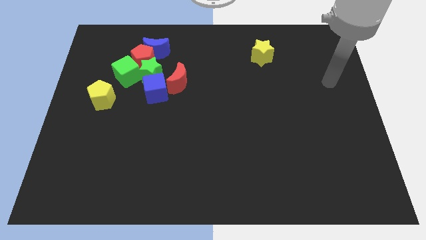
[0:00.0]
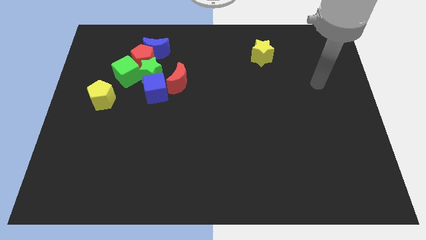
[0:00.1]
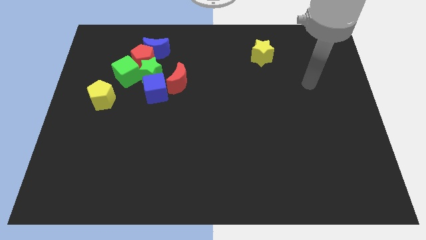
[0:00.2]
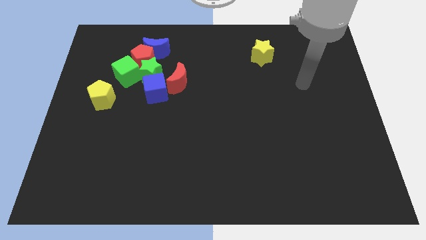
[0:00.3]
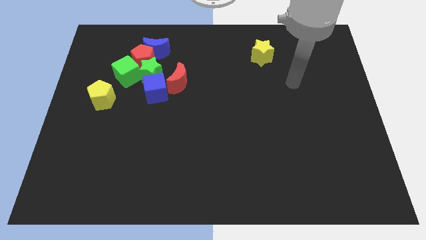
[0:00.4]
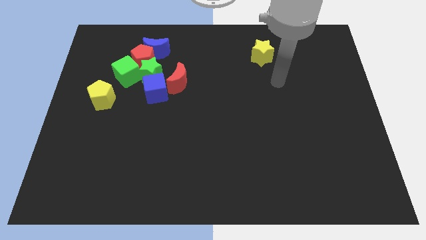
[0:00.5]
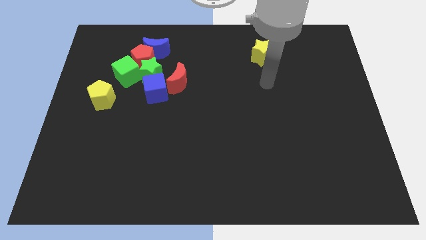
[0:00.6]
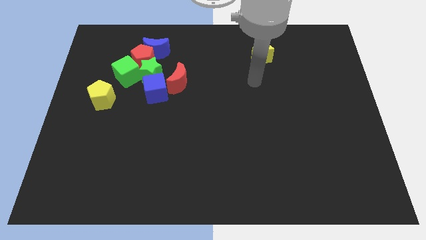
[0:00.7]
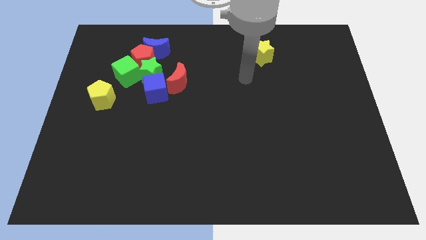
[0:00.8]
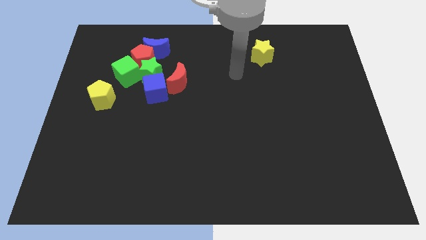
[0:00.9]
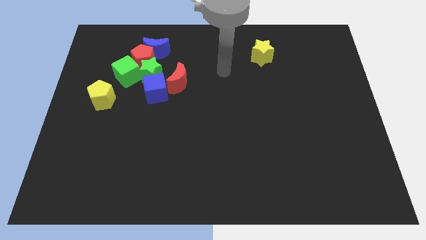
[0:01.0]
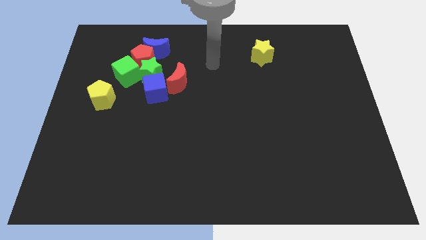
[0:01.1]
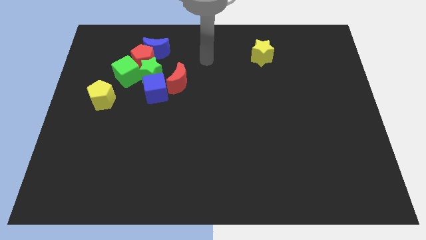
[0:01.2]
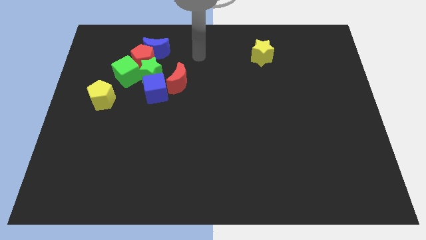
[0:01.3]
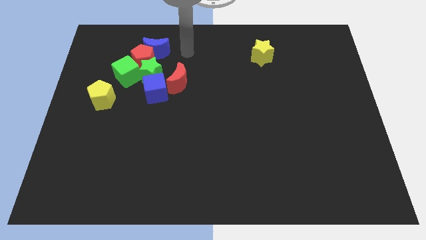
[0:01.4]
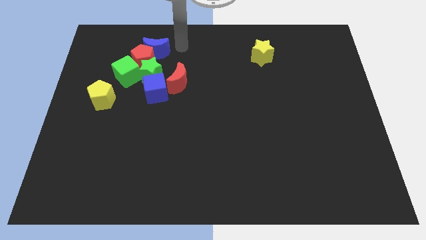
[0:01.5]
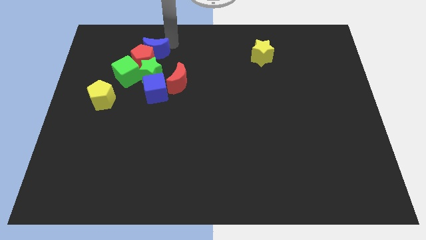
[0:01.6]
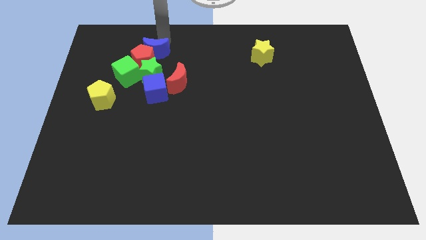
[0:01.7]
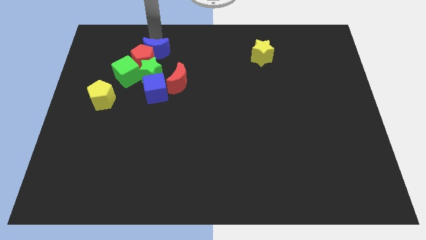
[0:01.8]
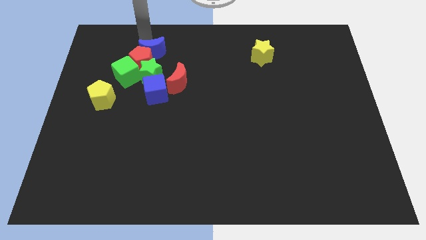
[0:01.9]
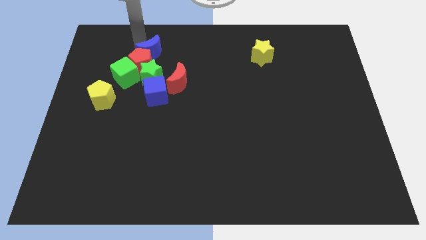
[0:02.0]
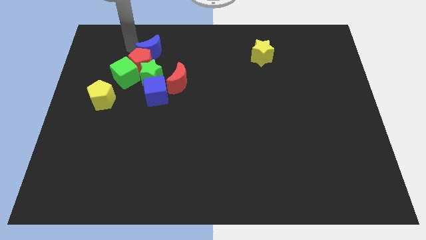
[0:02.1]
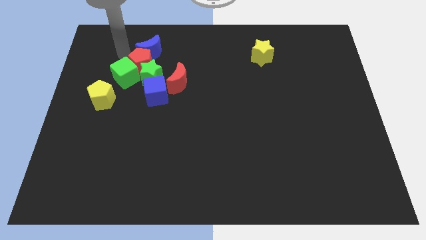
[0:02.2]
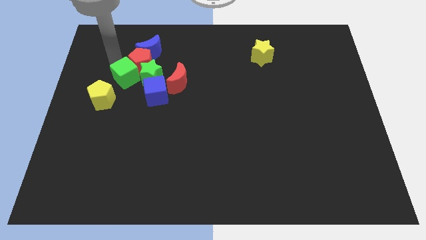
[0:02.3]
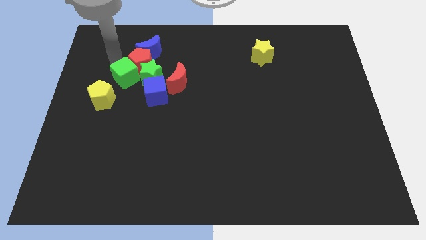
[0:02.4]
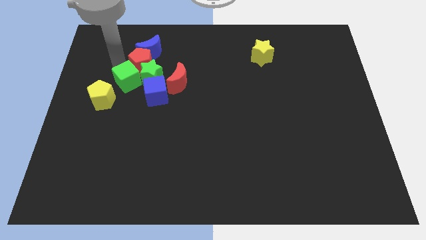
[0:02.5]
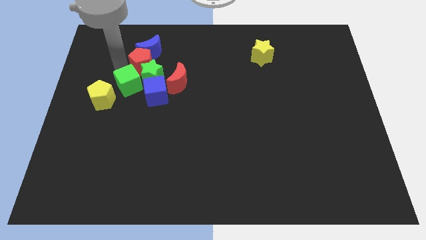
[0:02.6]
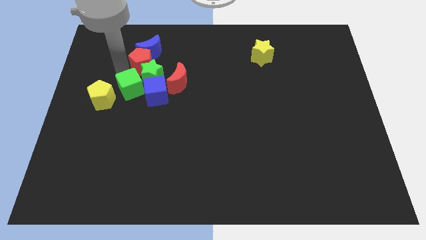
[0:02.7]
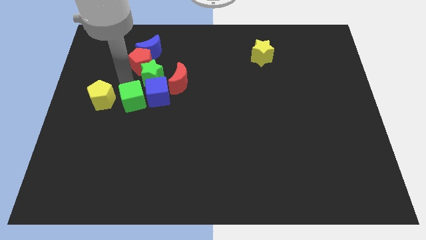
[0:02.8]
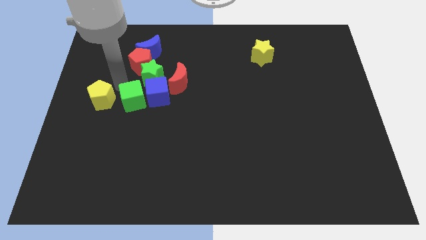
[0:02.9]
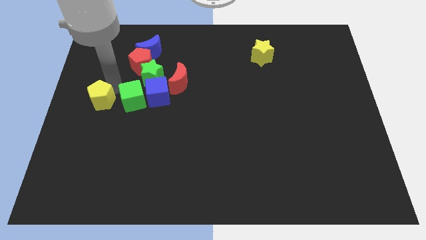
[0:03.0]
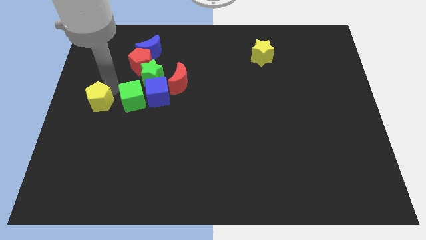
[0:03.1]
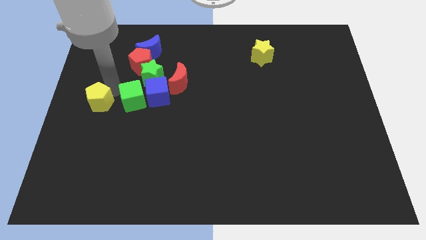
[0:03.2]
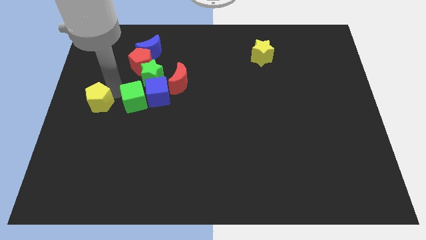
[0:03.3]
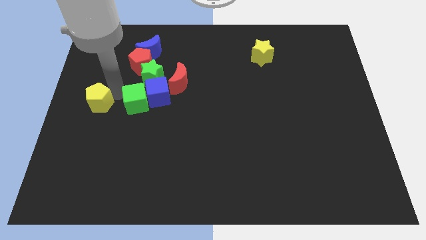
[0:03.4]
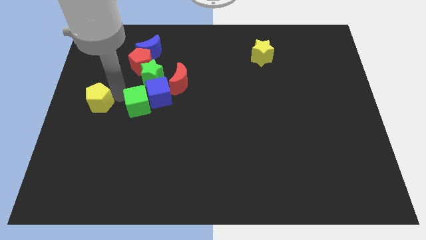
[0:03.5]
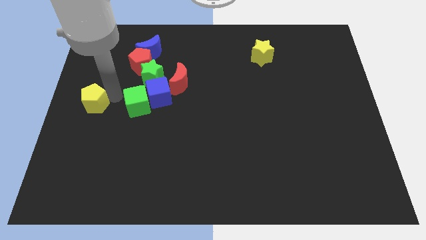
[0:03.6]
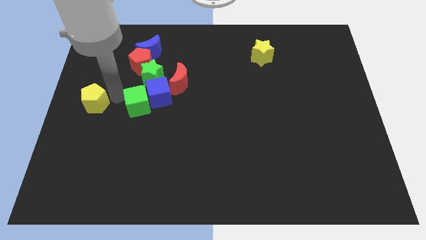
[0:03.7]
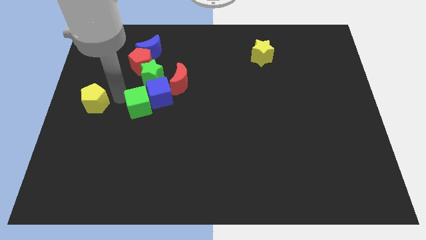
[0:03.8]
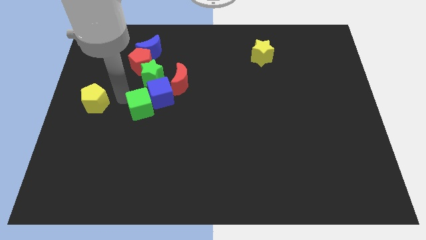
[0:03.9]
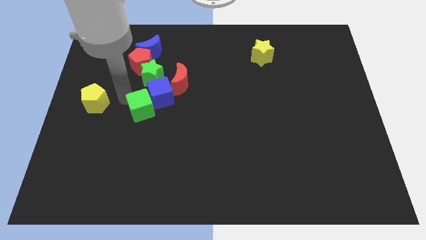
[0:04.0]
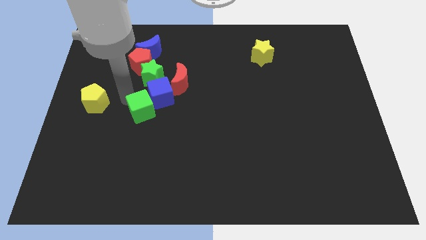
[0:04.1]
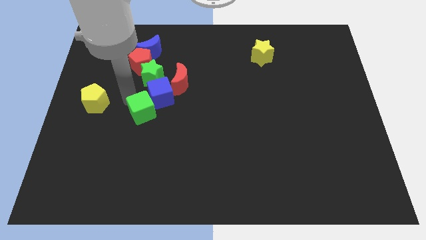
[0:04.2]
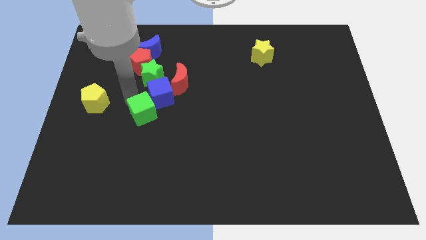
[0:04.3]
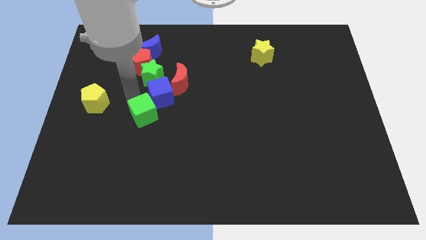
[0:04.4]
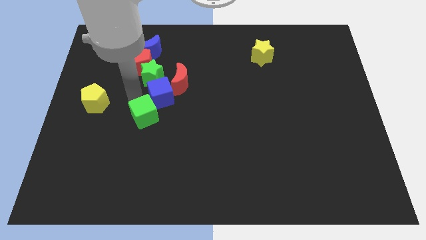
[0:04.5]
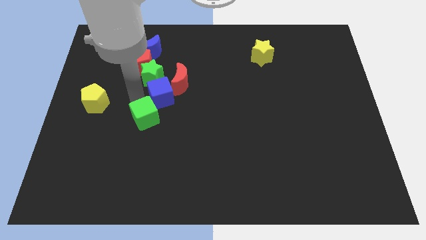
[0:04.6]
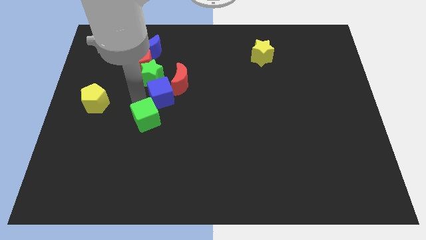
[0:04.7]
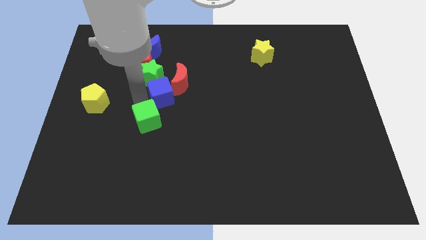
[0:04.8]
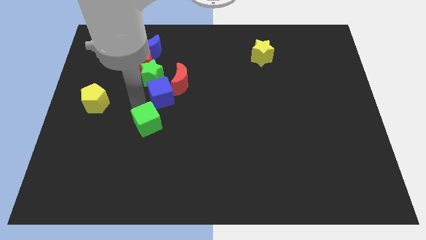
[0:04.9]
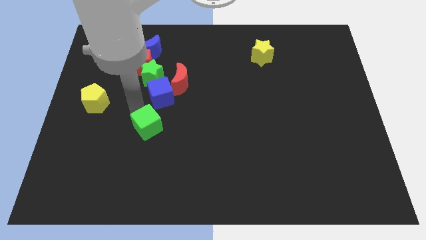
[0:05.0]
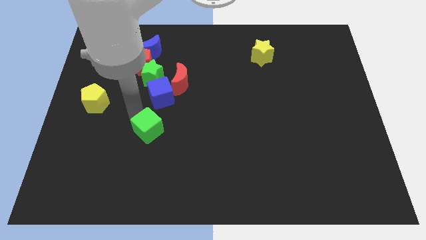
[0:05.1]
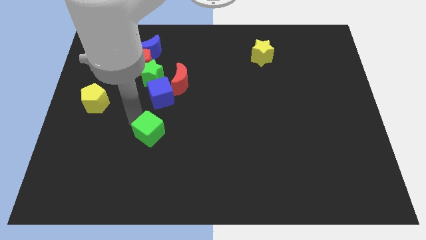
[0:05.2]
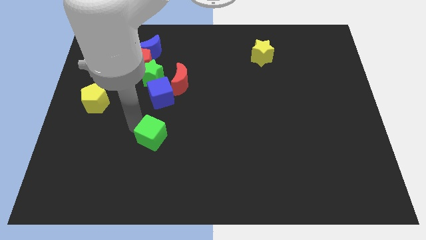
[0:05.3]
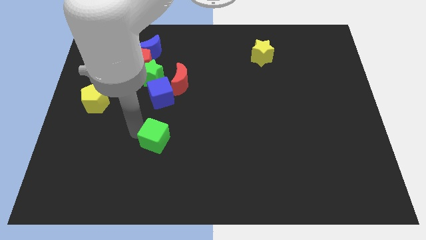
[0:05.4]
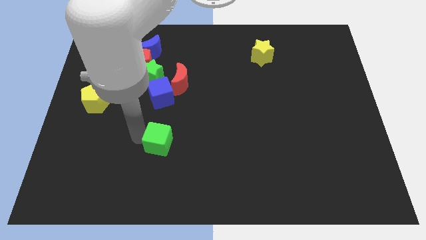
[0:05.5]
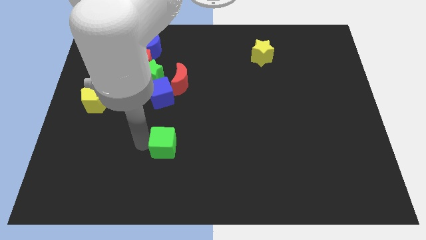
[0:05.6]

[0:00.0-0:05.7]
move the green cube down and right diagonally

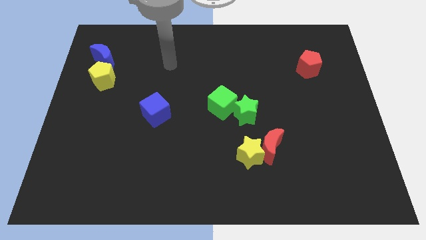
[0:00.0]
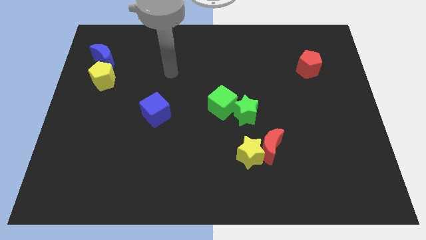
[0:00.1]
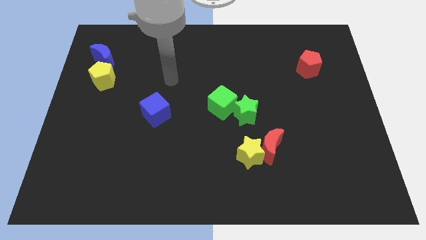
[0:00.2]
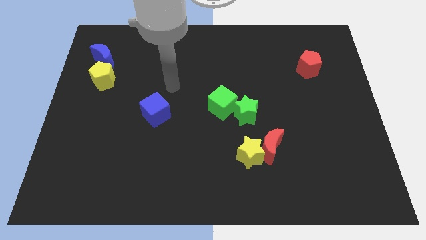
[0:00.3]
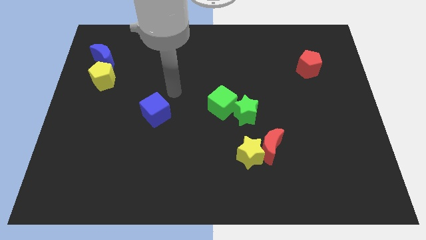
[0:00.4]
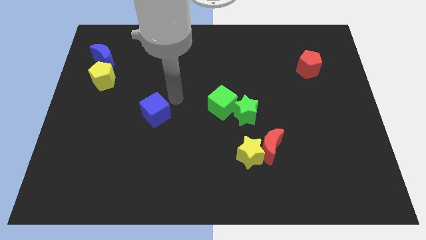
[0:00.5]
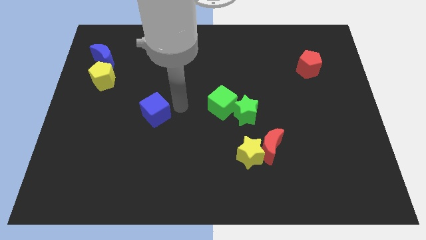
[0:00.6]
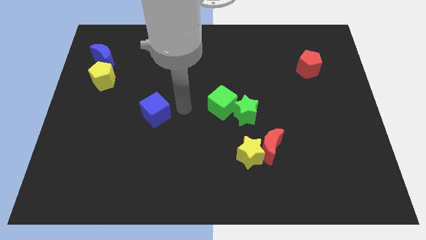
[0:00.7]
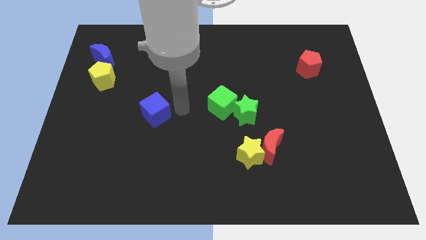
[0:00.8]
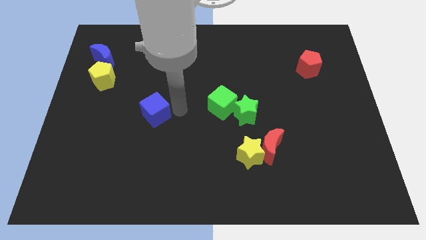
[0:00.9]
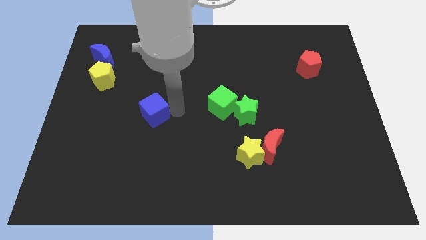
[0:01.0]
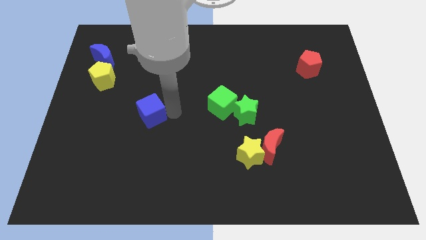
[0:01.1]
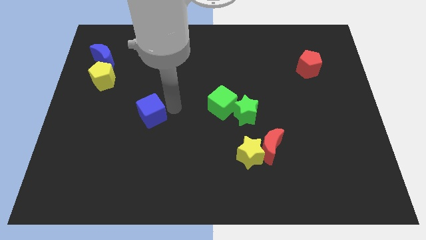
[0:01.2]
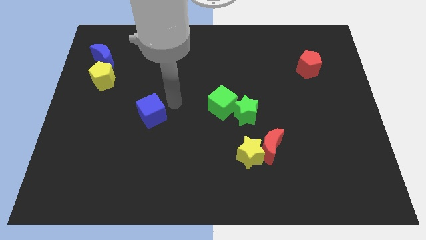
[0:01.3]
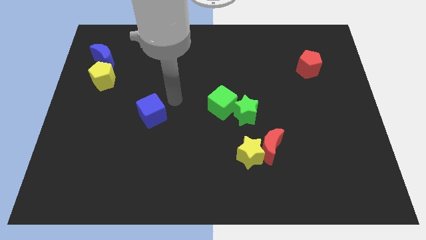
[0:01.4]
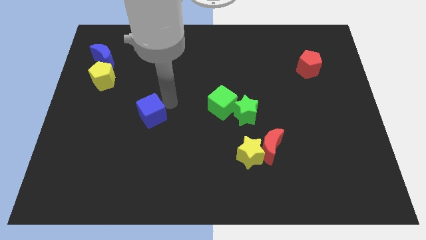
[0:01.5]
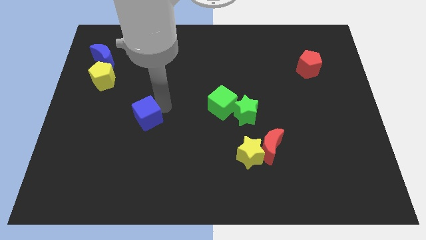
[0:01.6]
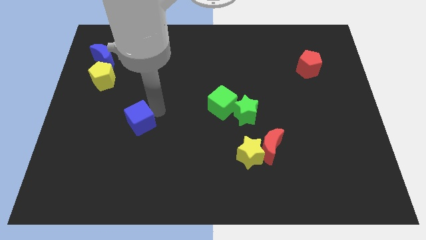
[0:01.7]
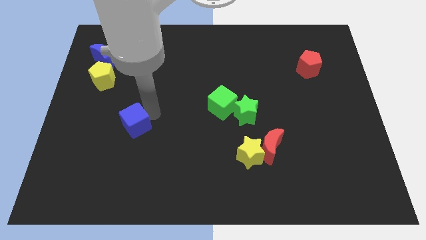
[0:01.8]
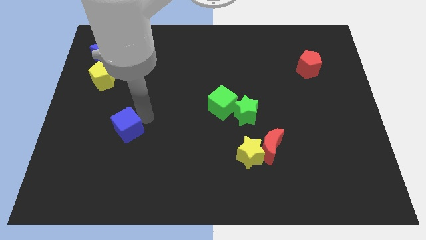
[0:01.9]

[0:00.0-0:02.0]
slightly push the blue cube diagonally down and left

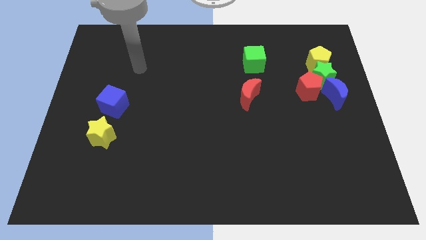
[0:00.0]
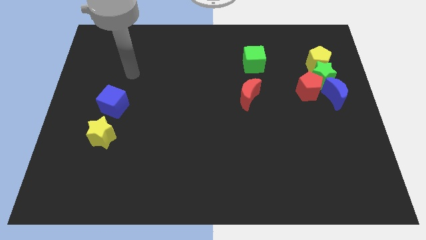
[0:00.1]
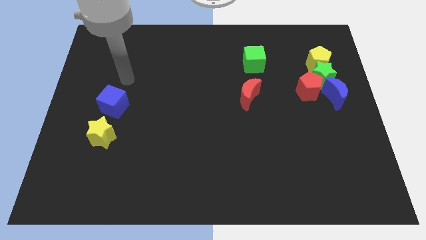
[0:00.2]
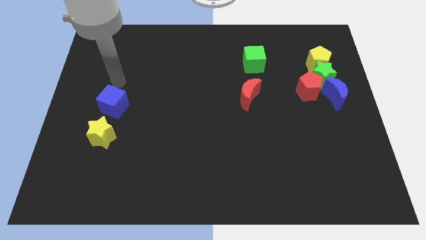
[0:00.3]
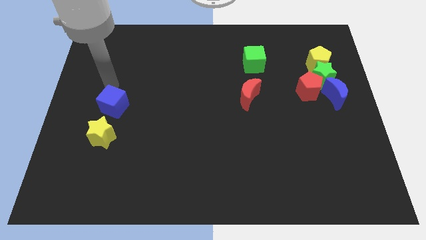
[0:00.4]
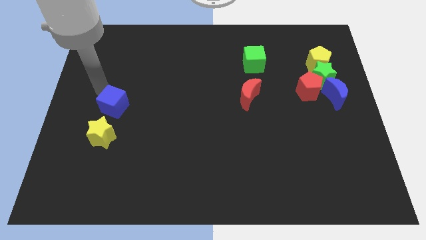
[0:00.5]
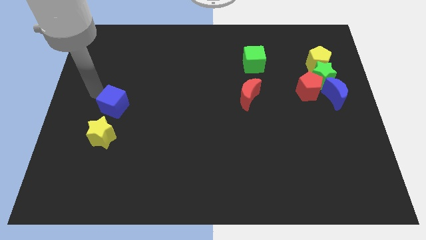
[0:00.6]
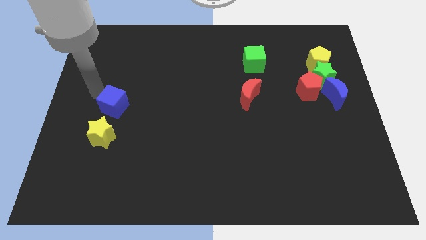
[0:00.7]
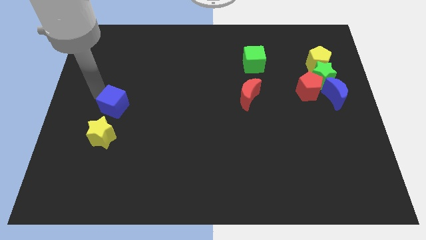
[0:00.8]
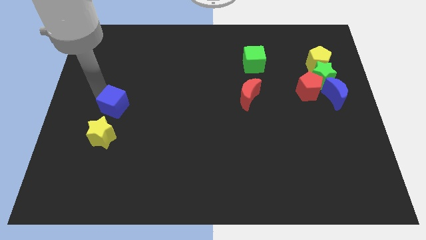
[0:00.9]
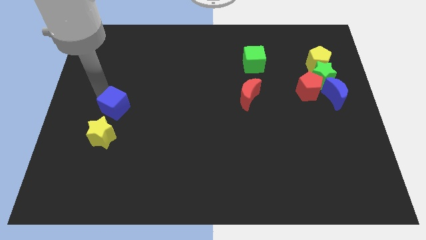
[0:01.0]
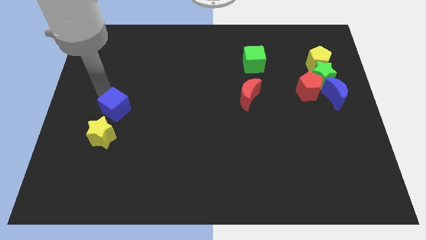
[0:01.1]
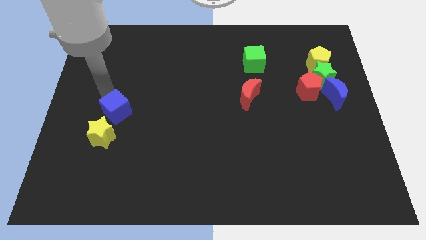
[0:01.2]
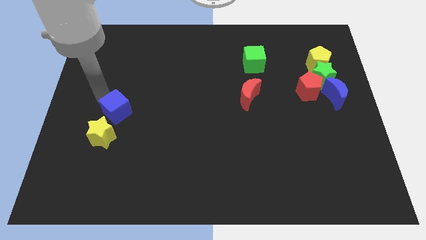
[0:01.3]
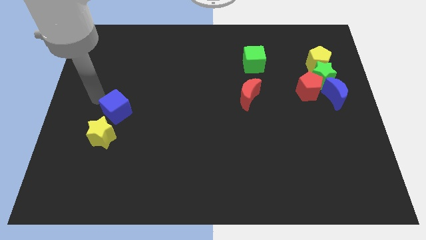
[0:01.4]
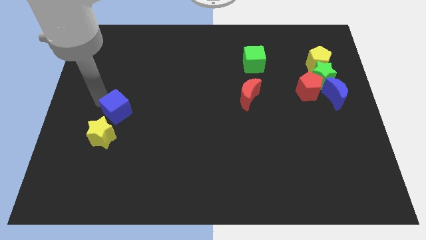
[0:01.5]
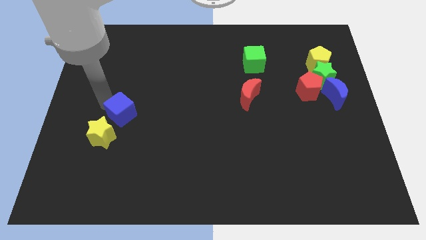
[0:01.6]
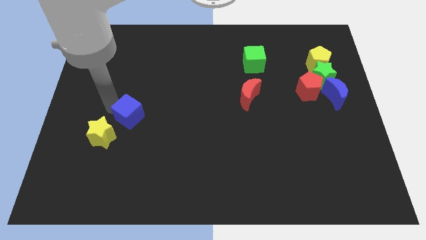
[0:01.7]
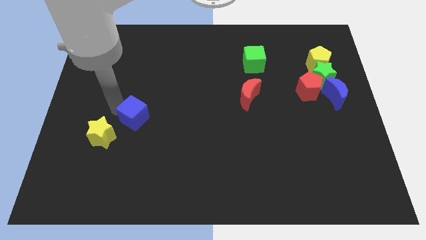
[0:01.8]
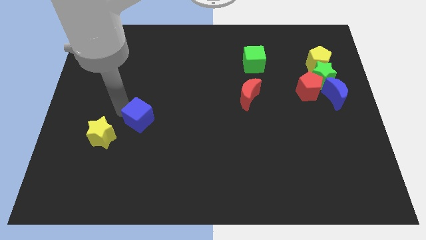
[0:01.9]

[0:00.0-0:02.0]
slide the blue cube somewhat downwards and to the right
